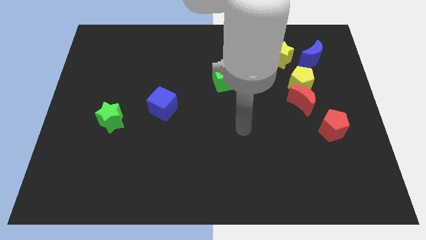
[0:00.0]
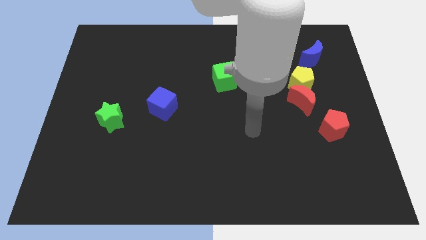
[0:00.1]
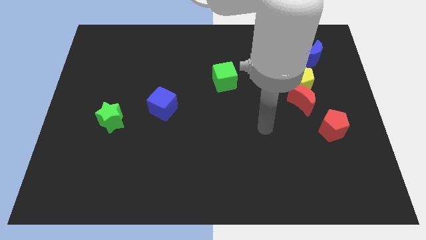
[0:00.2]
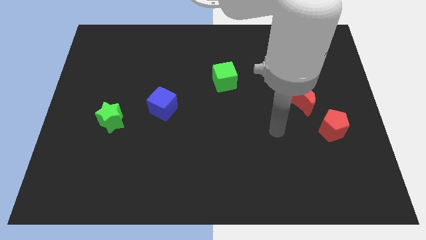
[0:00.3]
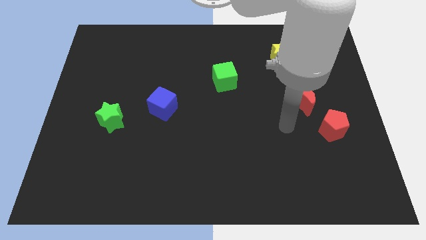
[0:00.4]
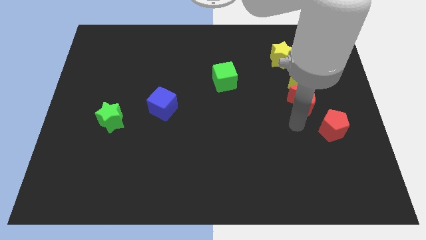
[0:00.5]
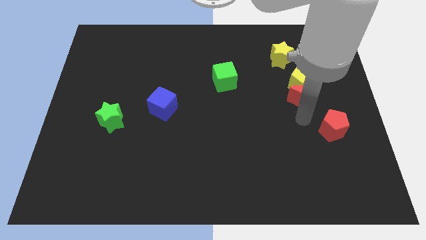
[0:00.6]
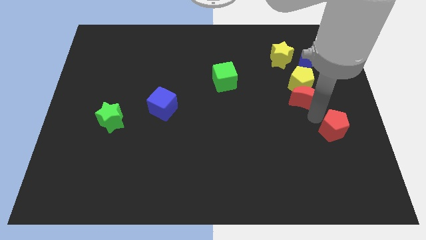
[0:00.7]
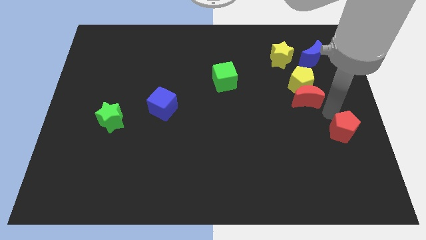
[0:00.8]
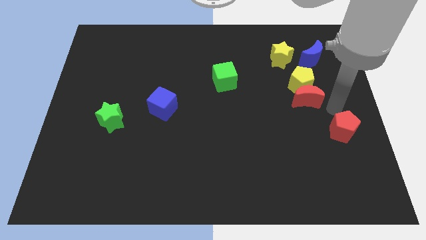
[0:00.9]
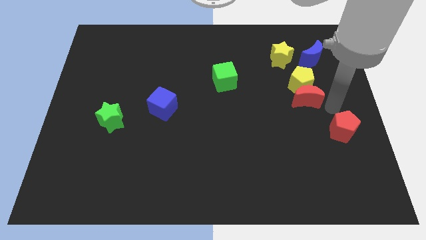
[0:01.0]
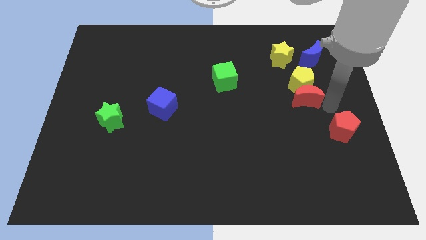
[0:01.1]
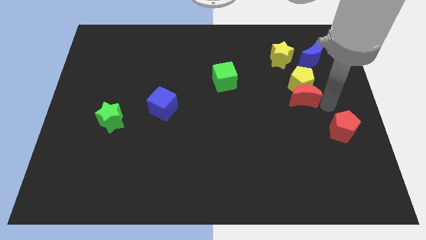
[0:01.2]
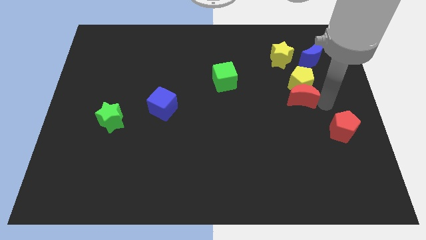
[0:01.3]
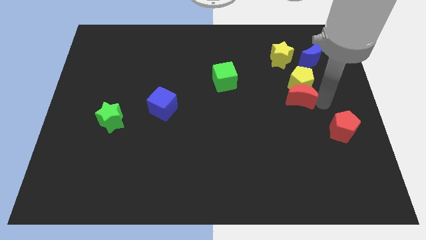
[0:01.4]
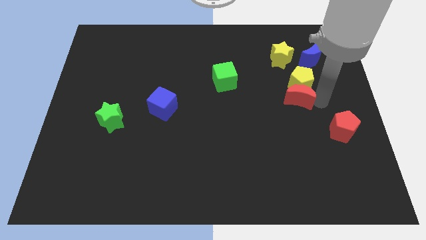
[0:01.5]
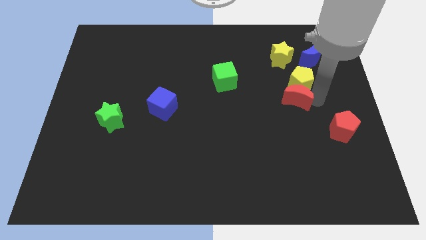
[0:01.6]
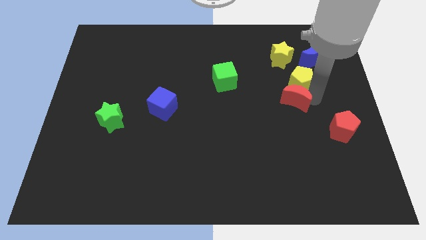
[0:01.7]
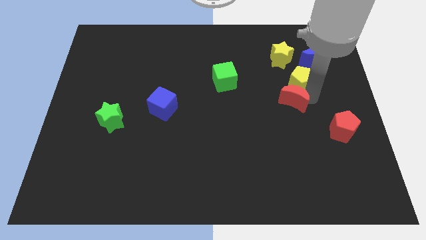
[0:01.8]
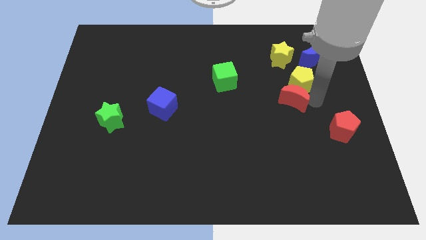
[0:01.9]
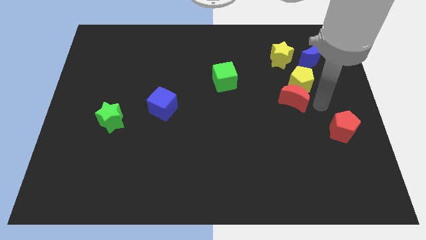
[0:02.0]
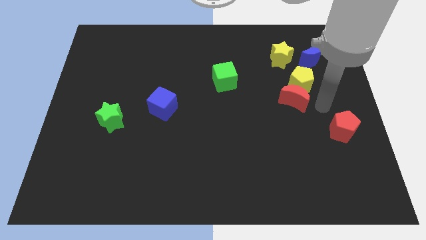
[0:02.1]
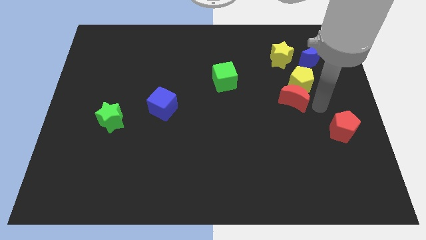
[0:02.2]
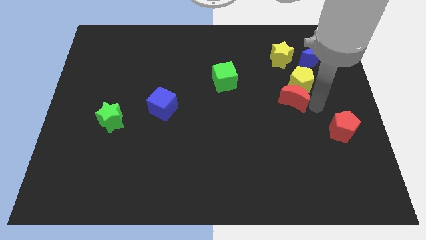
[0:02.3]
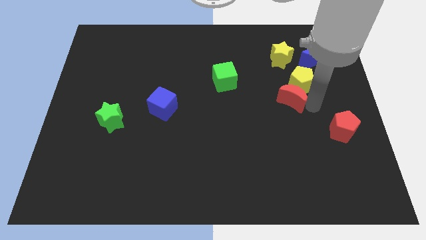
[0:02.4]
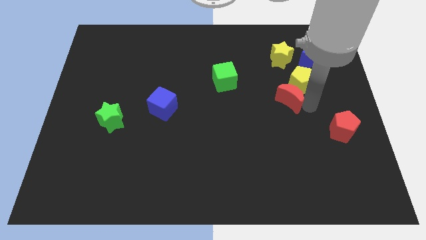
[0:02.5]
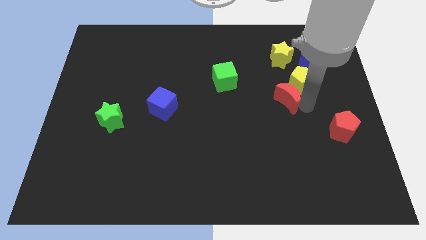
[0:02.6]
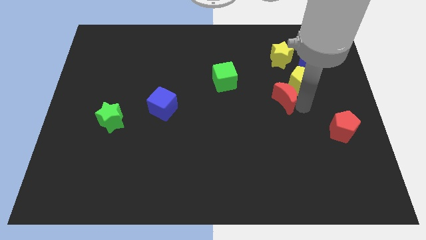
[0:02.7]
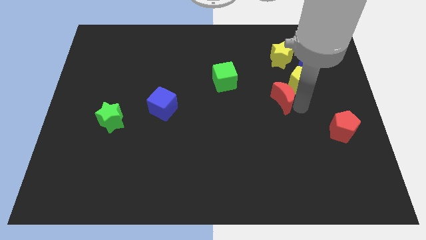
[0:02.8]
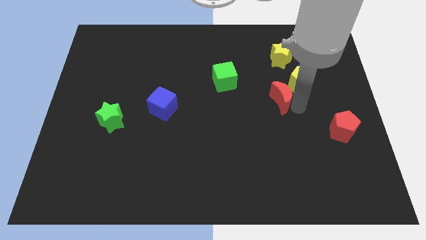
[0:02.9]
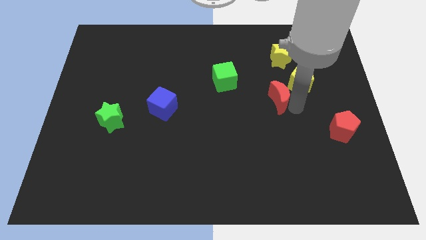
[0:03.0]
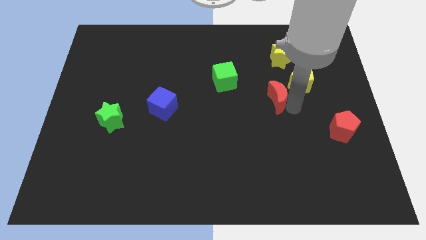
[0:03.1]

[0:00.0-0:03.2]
pull the red moon apart from the yellow pentagon and red pentagon

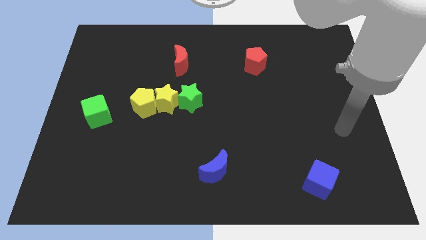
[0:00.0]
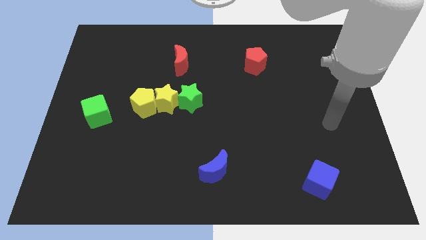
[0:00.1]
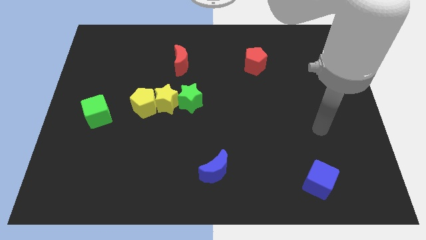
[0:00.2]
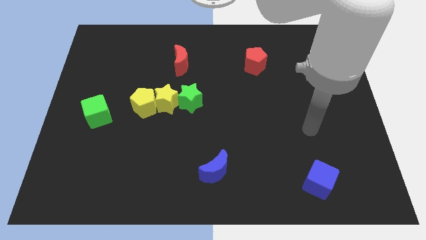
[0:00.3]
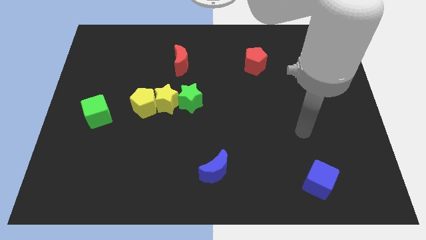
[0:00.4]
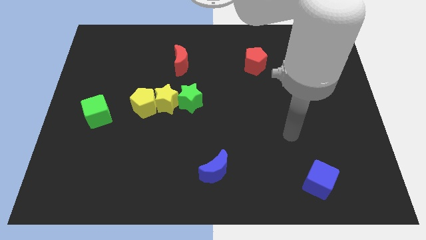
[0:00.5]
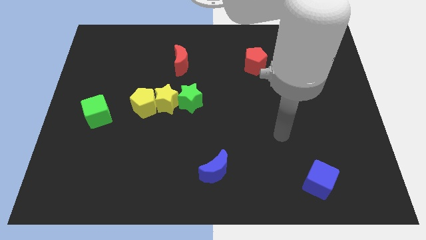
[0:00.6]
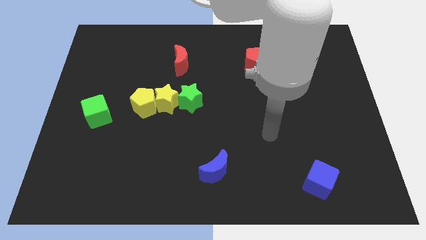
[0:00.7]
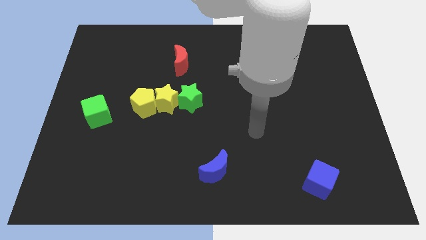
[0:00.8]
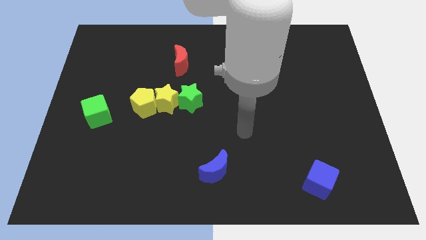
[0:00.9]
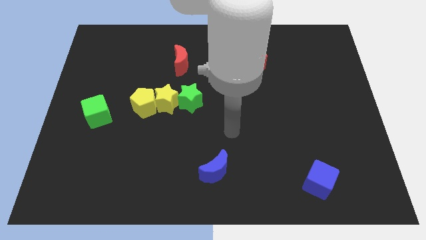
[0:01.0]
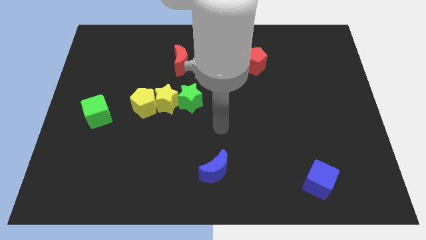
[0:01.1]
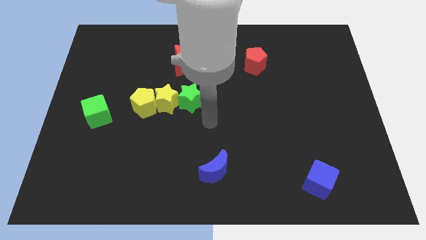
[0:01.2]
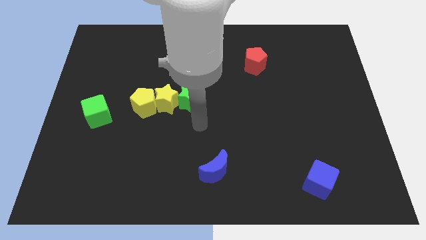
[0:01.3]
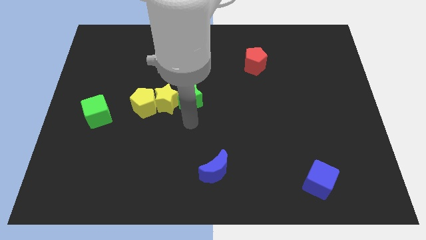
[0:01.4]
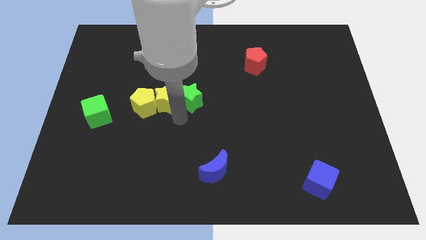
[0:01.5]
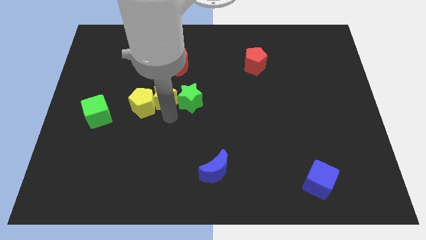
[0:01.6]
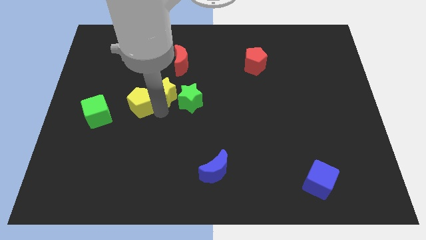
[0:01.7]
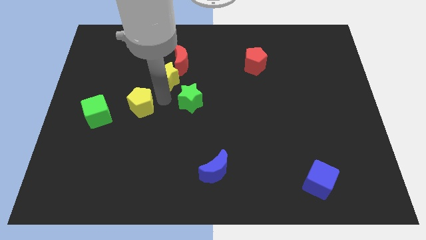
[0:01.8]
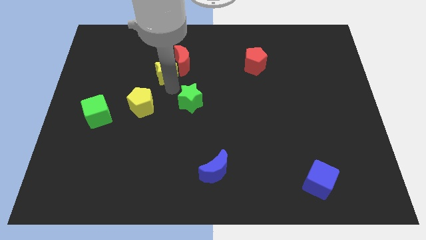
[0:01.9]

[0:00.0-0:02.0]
pull the green star apart from the yellow star

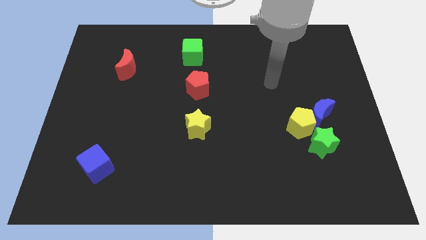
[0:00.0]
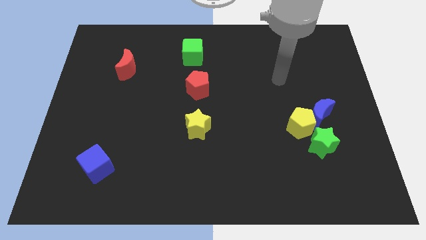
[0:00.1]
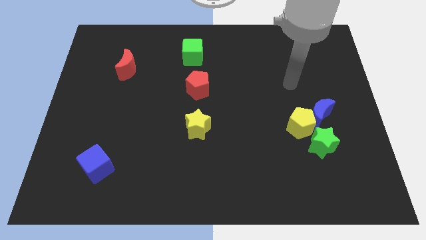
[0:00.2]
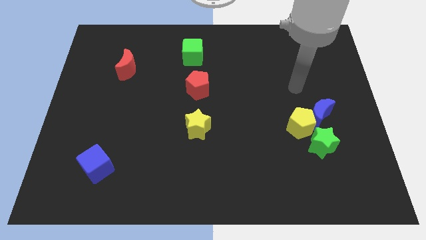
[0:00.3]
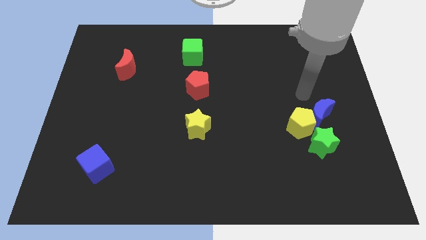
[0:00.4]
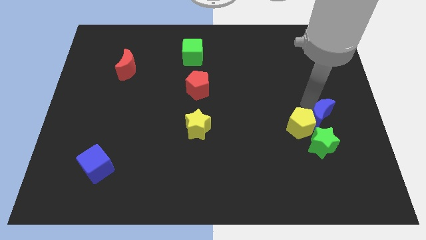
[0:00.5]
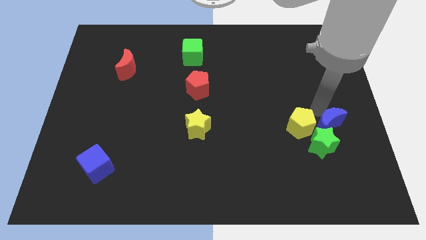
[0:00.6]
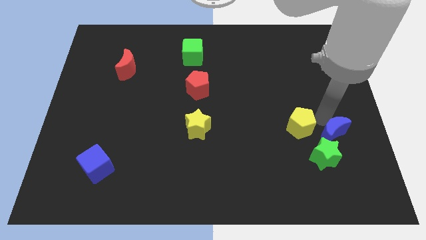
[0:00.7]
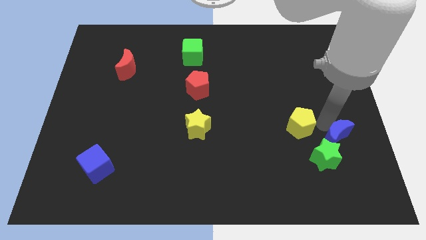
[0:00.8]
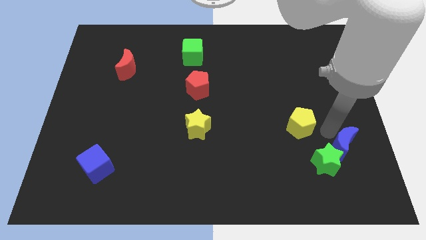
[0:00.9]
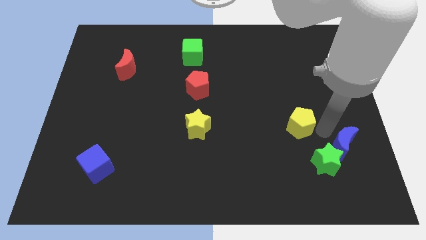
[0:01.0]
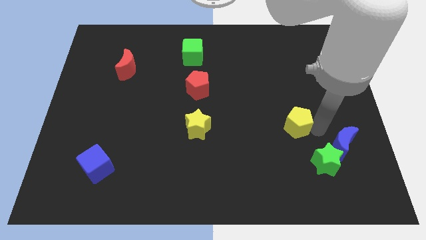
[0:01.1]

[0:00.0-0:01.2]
separate the yellow pentagon from the blue moon and green star

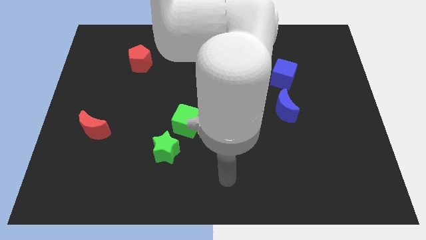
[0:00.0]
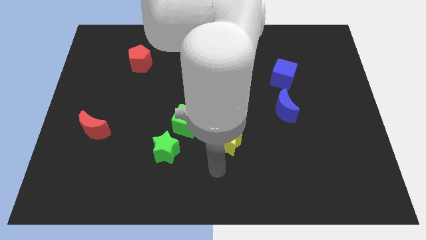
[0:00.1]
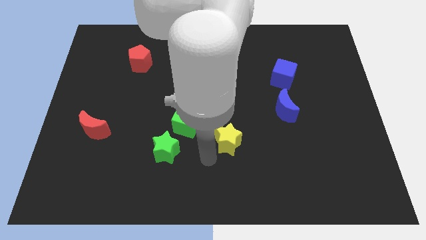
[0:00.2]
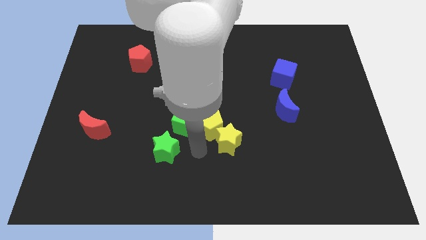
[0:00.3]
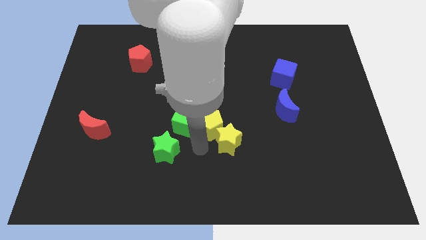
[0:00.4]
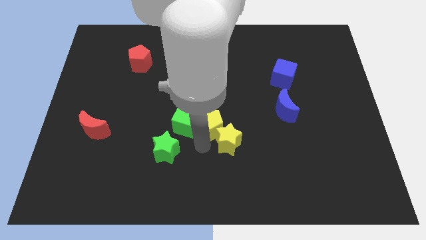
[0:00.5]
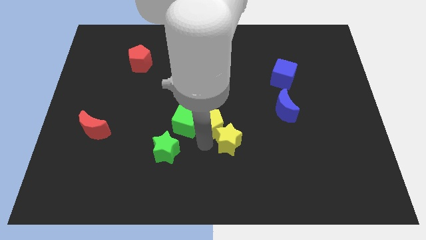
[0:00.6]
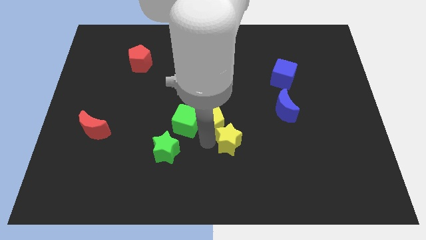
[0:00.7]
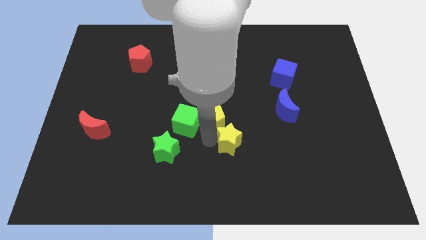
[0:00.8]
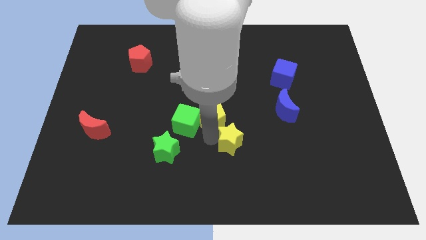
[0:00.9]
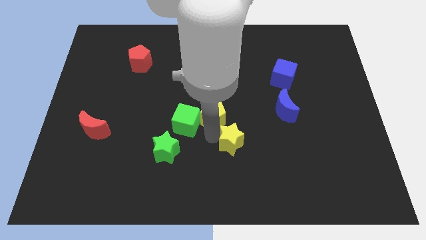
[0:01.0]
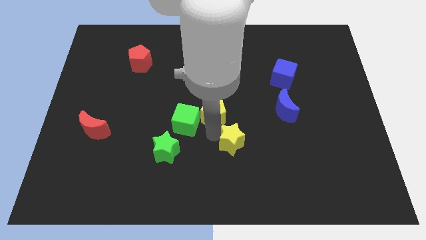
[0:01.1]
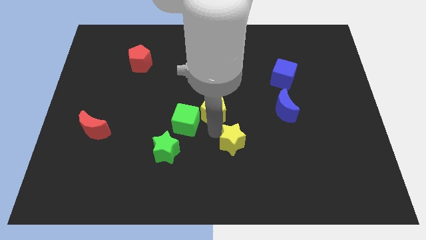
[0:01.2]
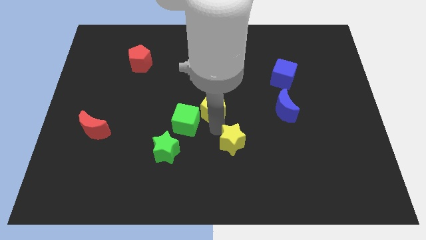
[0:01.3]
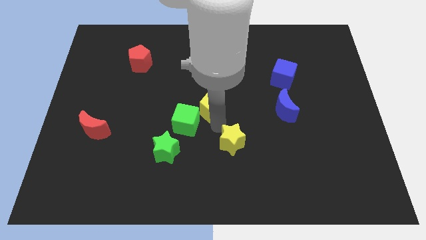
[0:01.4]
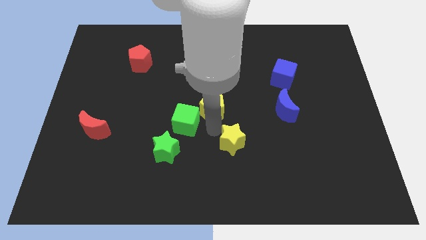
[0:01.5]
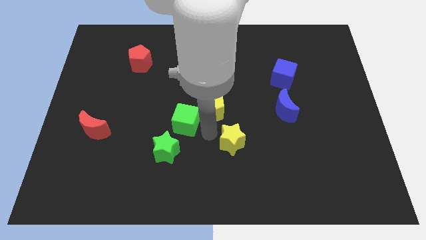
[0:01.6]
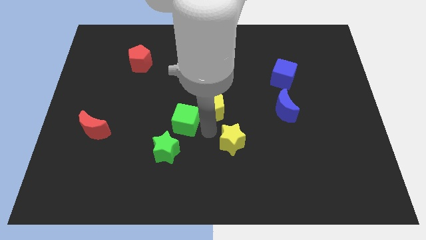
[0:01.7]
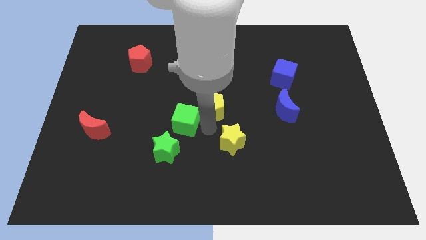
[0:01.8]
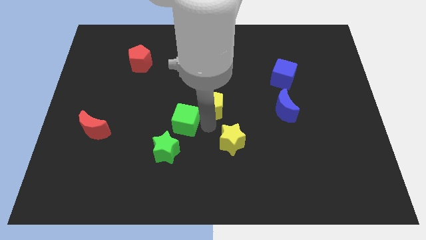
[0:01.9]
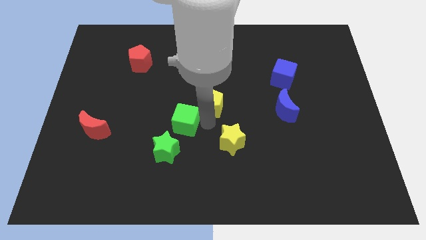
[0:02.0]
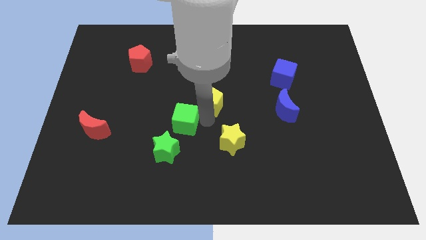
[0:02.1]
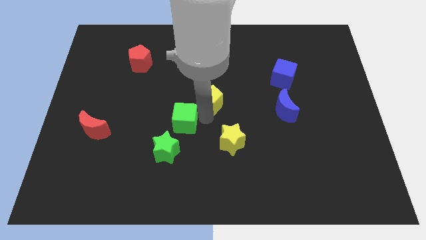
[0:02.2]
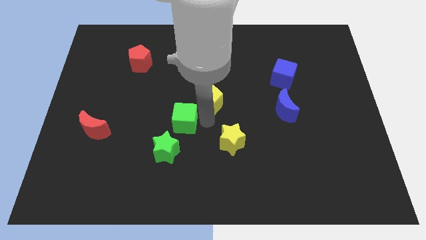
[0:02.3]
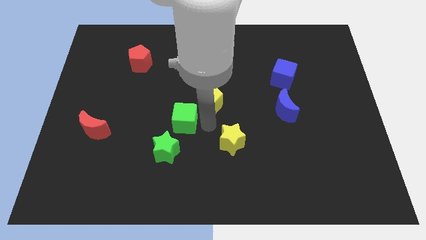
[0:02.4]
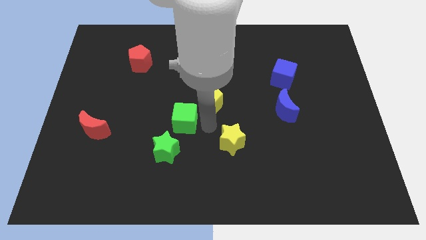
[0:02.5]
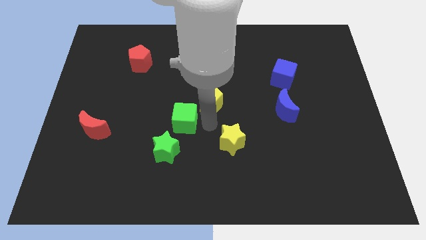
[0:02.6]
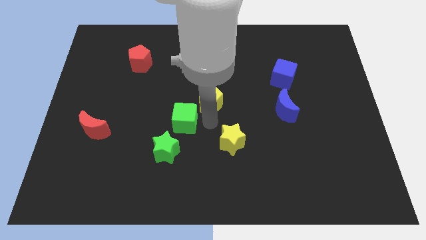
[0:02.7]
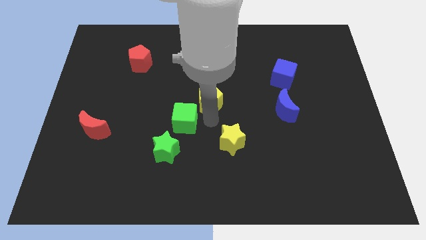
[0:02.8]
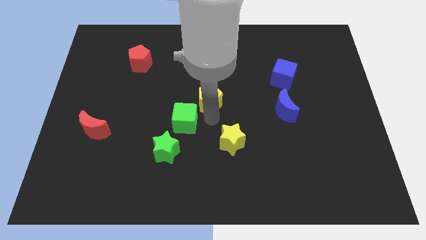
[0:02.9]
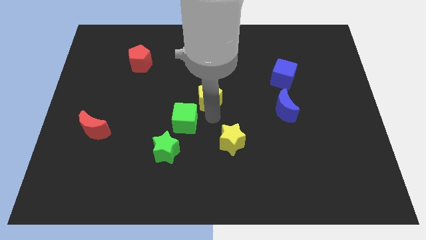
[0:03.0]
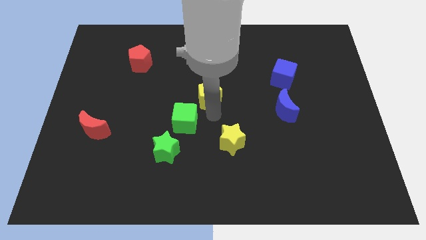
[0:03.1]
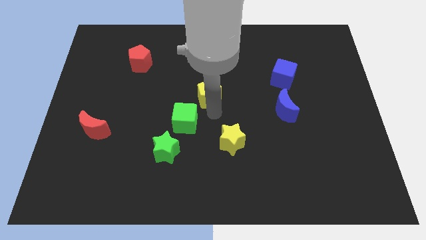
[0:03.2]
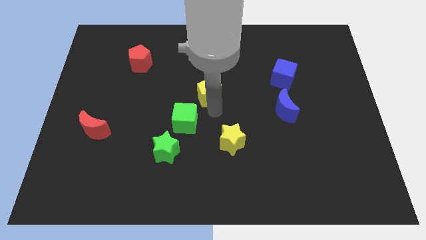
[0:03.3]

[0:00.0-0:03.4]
move the yellow pentagon away from the yellow star and green cube
